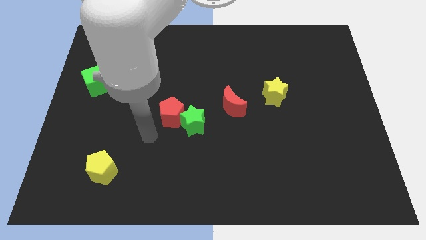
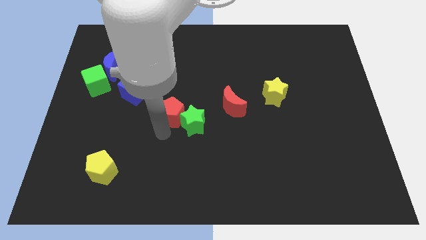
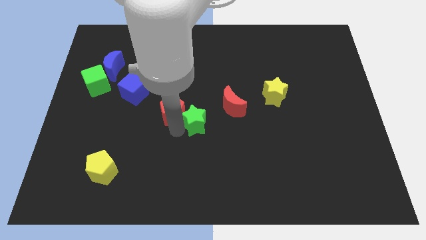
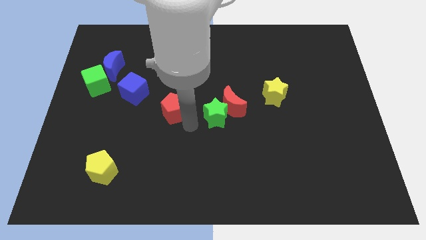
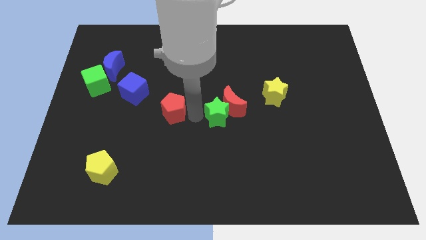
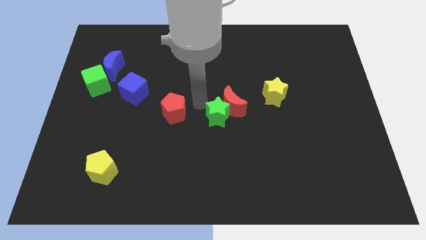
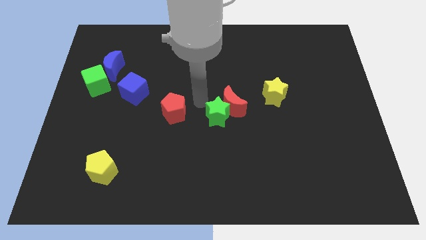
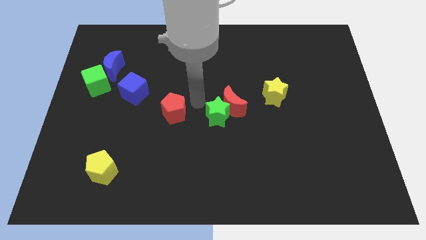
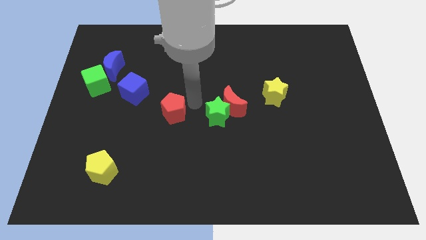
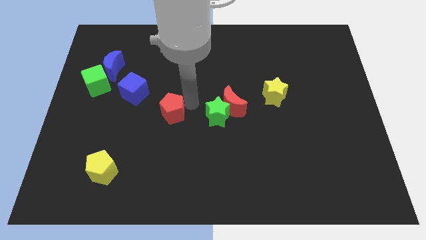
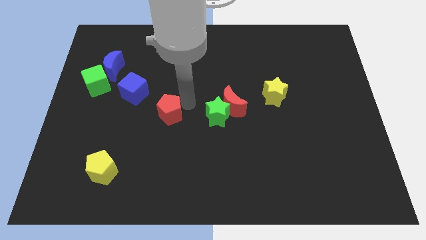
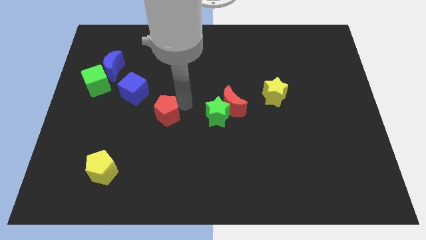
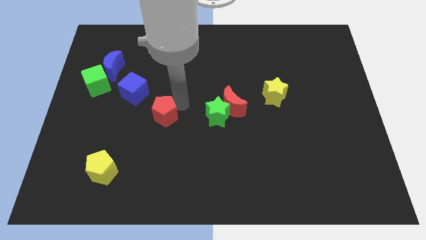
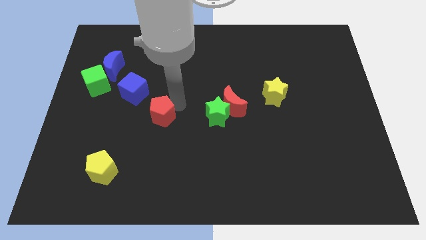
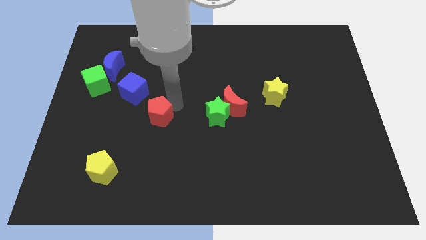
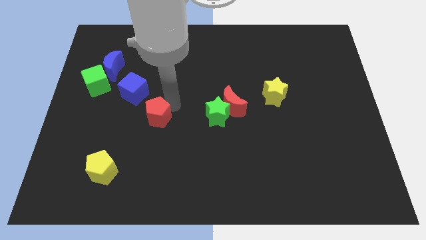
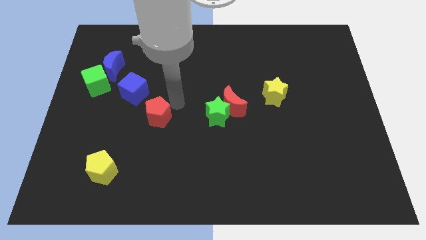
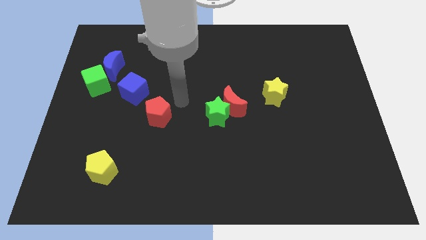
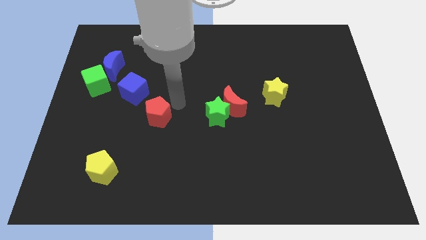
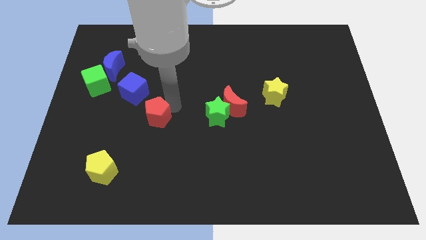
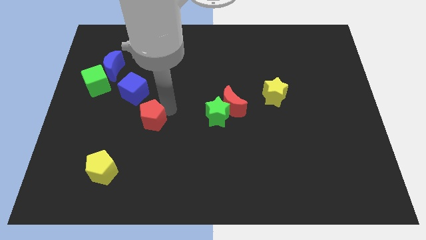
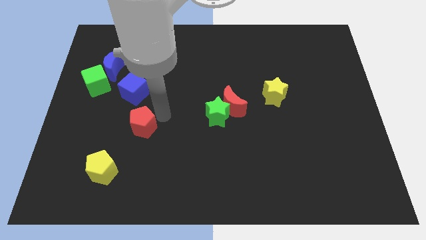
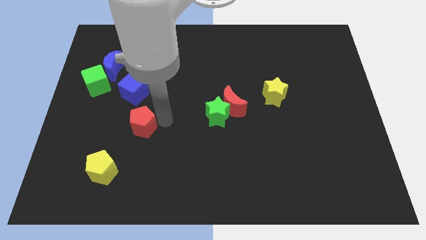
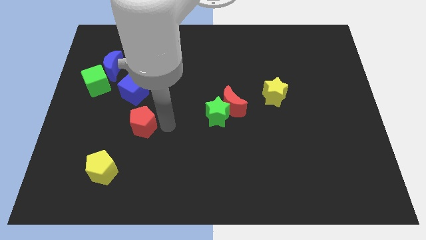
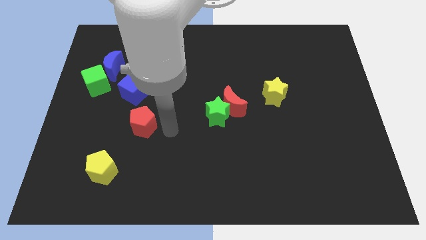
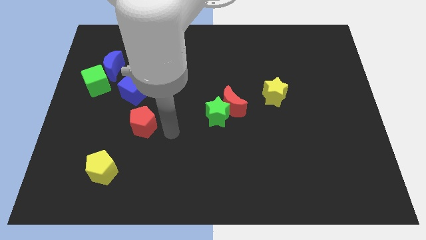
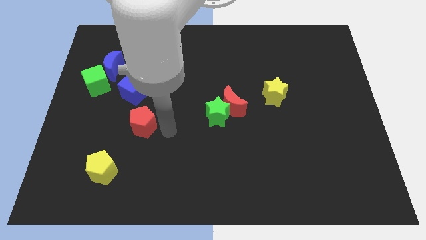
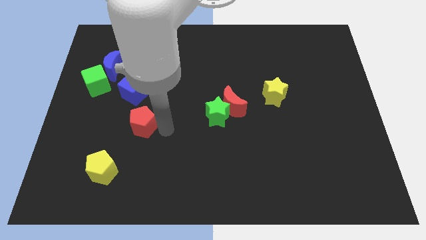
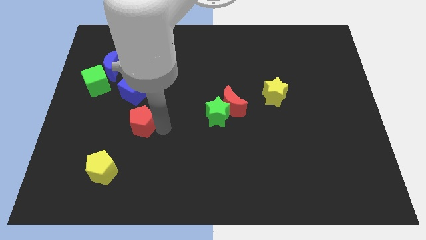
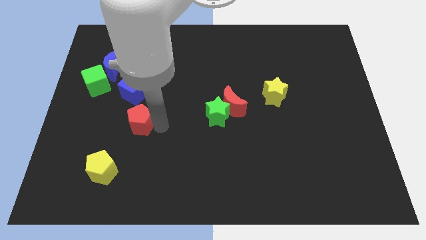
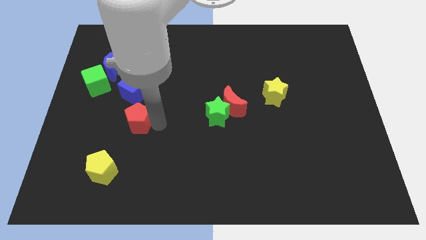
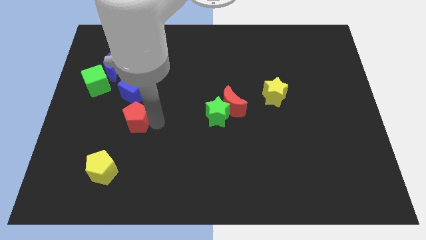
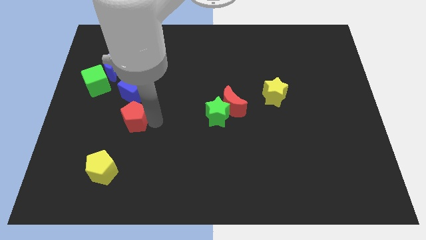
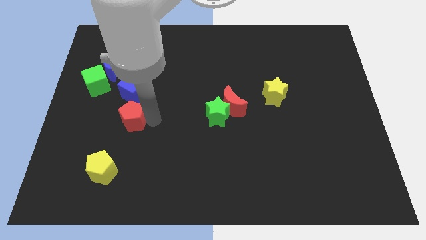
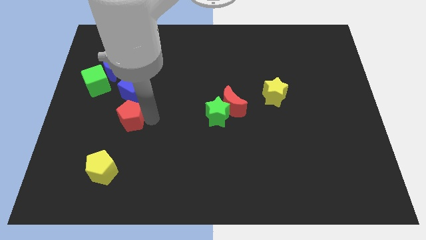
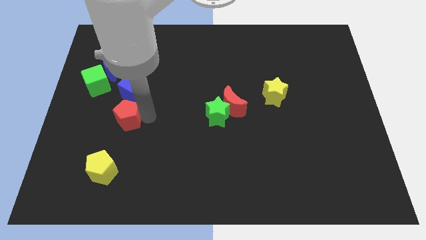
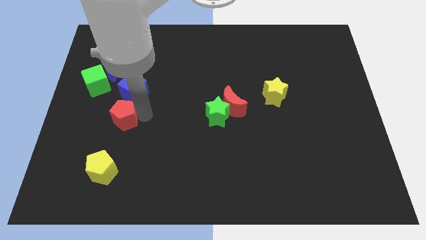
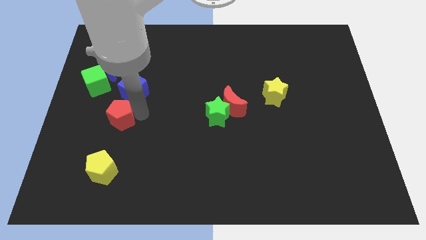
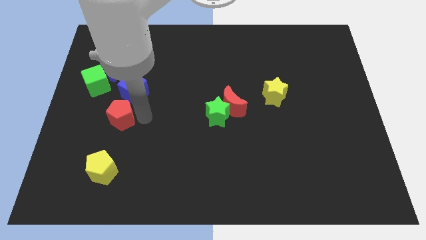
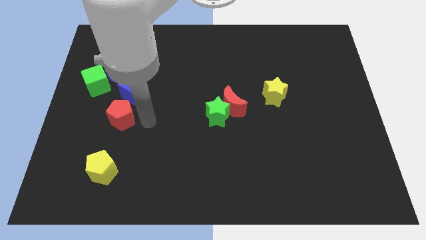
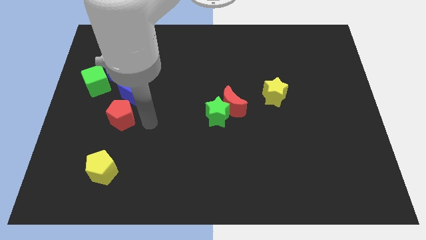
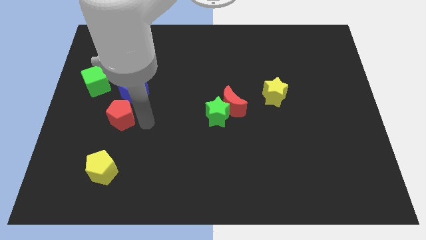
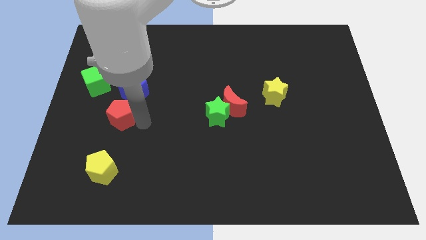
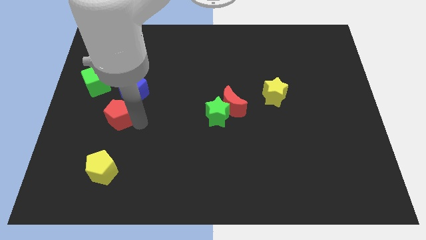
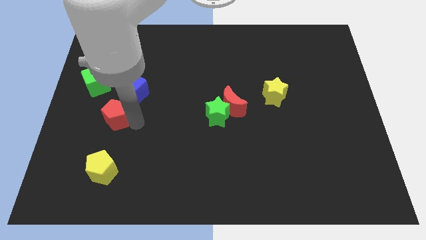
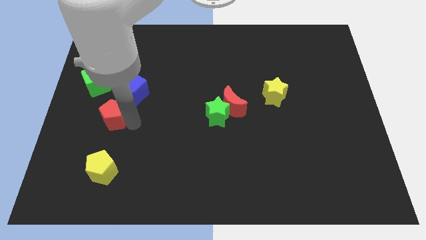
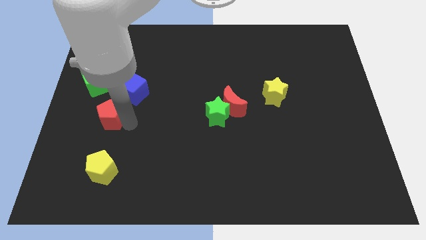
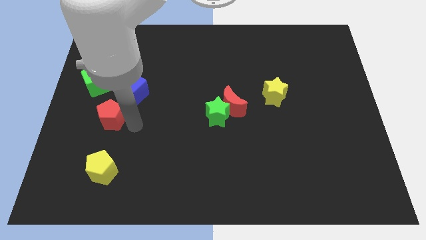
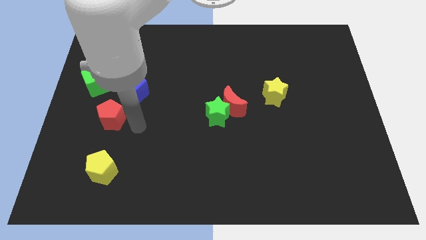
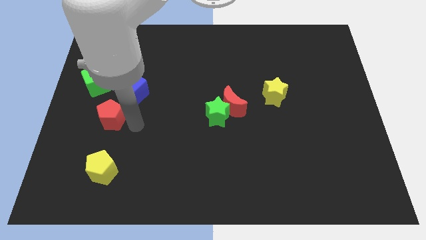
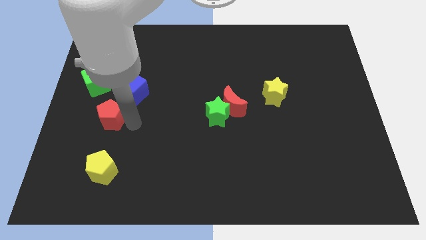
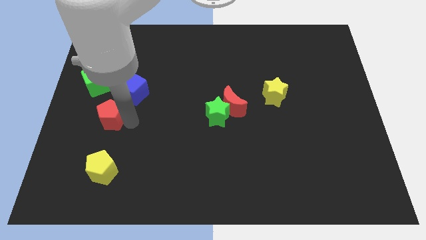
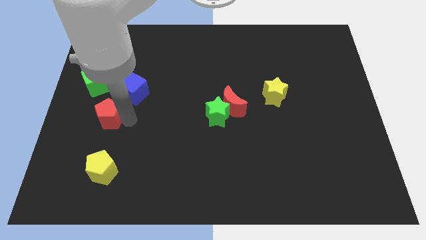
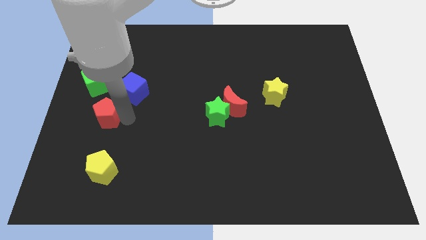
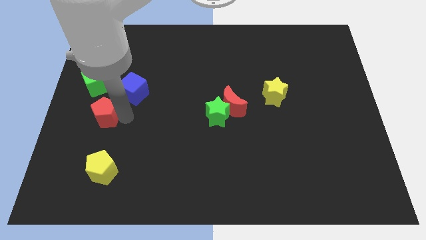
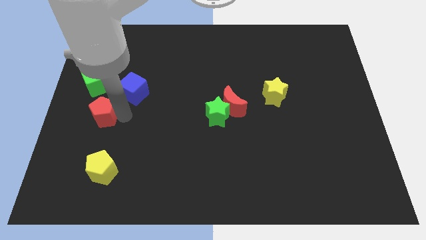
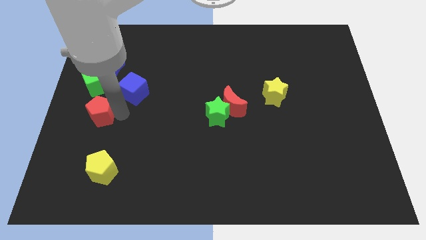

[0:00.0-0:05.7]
move the red pentagon to the left side
